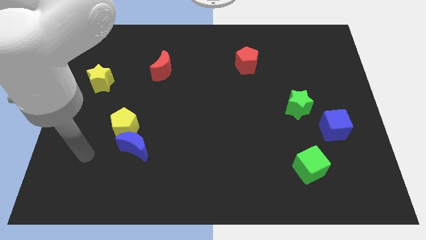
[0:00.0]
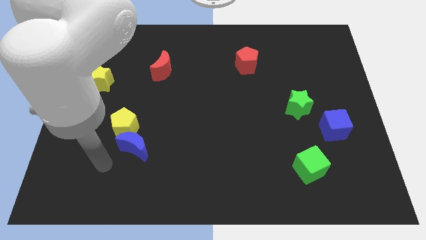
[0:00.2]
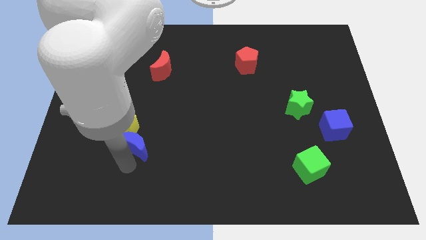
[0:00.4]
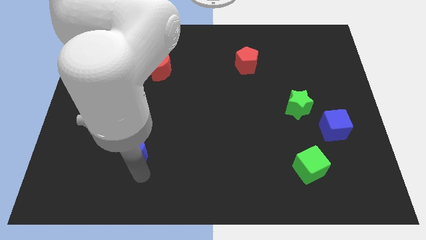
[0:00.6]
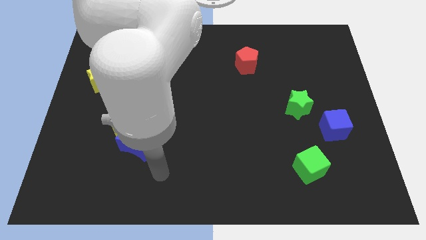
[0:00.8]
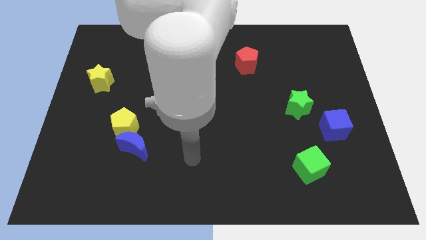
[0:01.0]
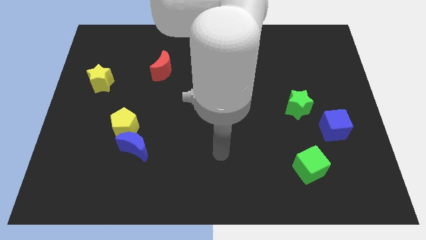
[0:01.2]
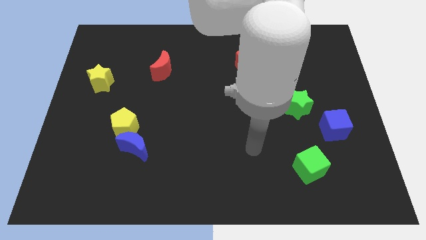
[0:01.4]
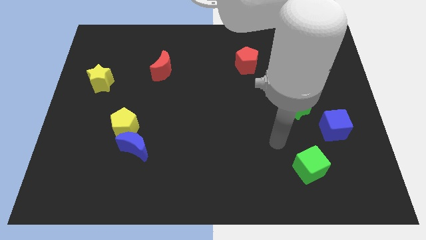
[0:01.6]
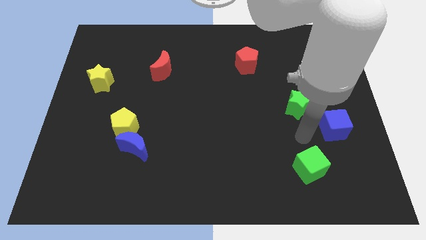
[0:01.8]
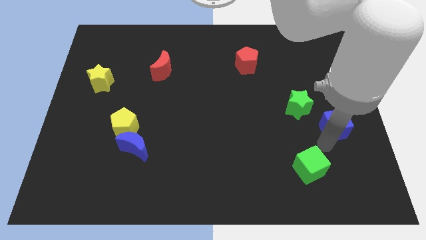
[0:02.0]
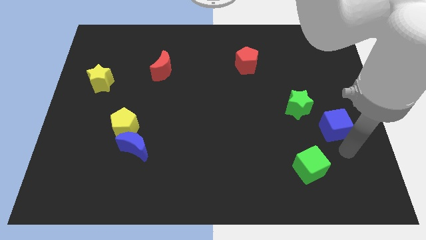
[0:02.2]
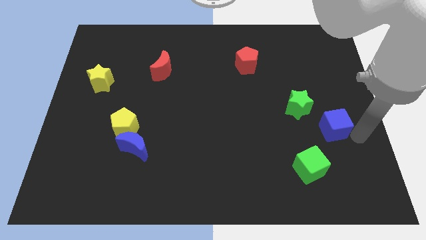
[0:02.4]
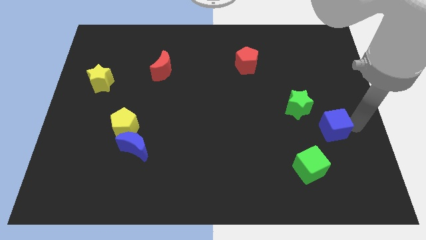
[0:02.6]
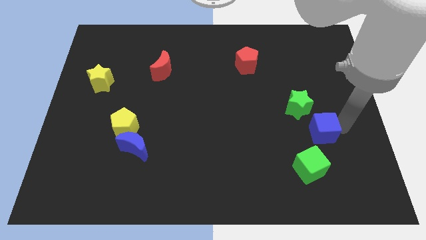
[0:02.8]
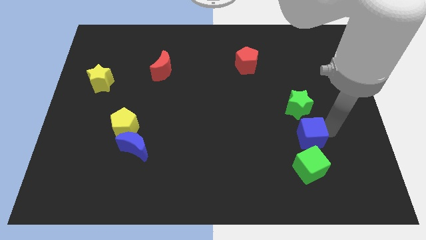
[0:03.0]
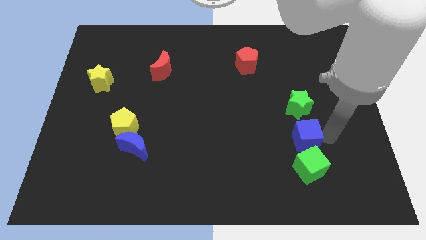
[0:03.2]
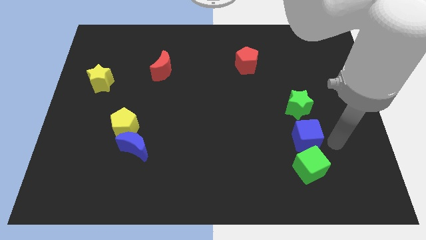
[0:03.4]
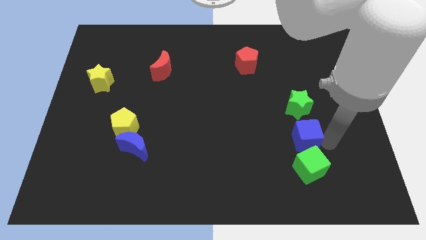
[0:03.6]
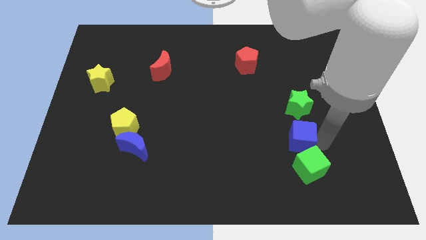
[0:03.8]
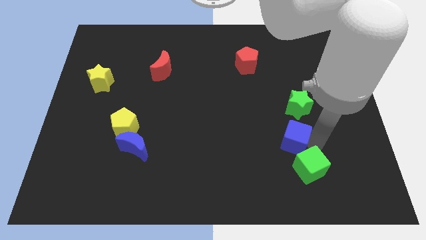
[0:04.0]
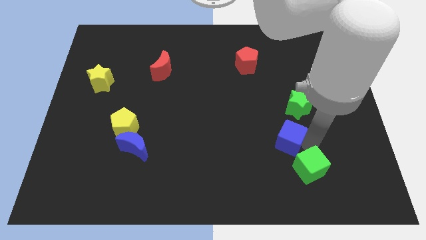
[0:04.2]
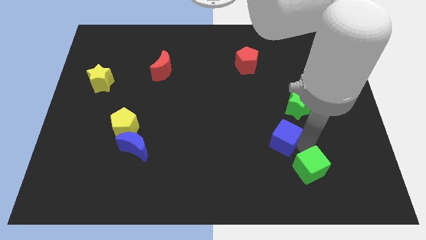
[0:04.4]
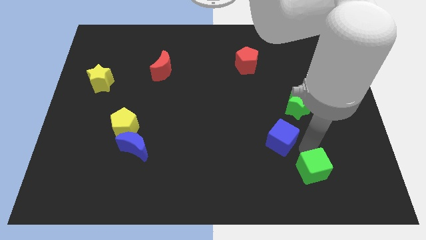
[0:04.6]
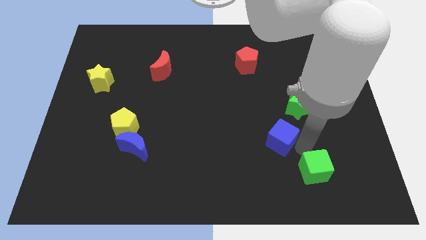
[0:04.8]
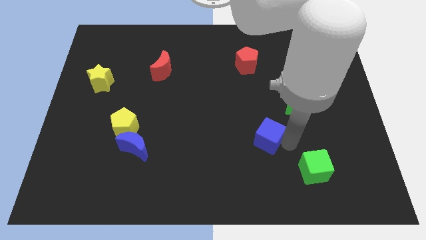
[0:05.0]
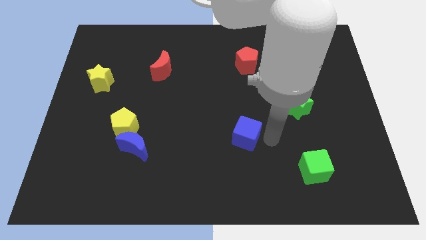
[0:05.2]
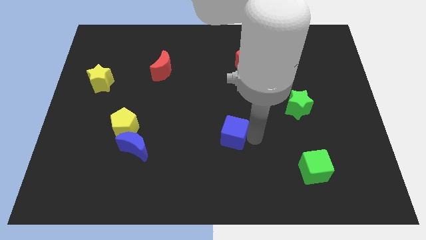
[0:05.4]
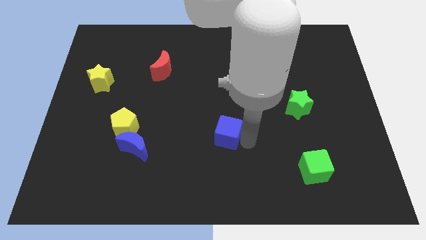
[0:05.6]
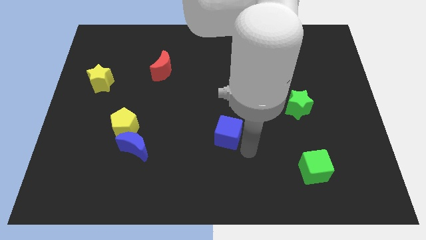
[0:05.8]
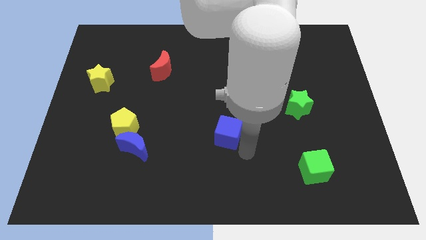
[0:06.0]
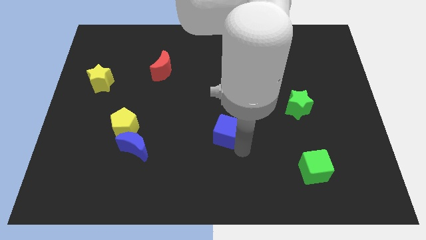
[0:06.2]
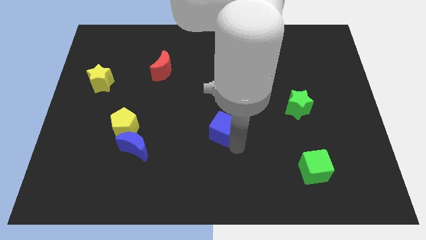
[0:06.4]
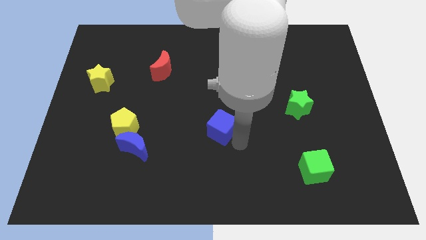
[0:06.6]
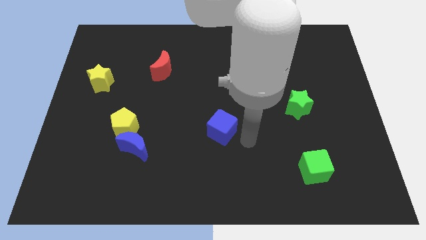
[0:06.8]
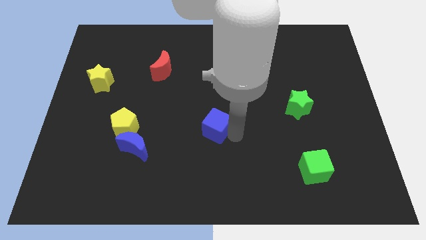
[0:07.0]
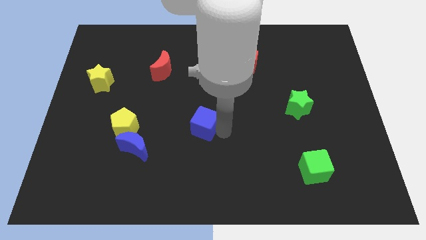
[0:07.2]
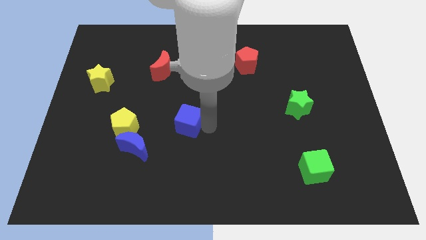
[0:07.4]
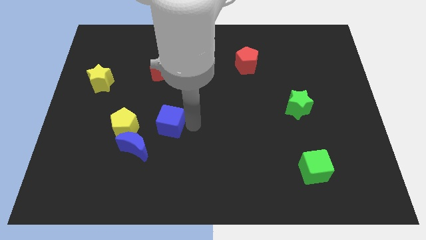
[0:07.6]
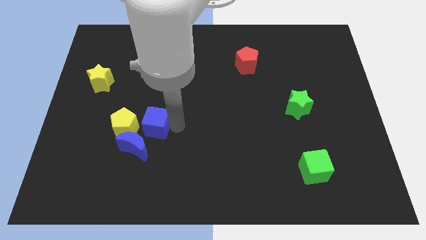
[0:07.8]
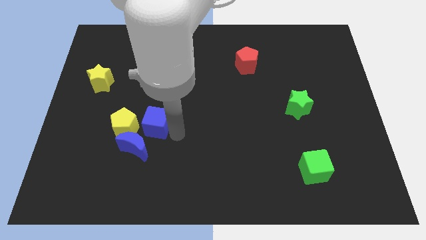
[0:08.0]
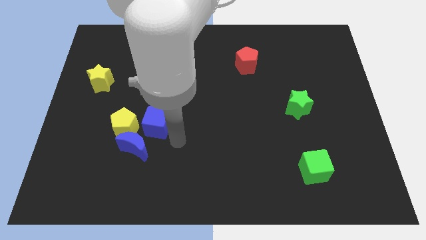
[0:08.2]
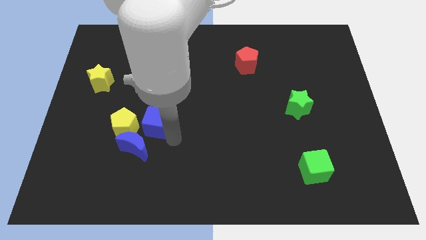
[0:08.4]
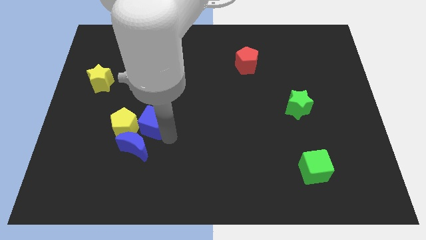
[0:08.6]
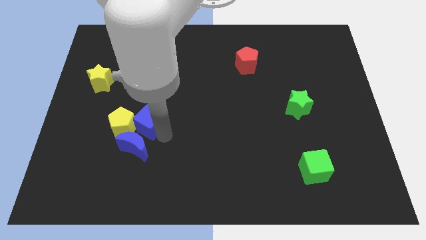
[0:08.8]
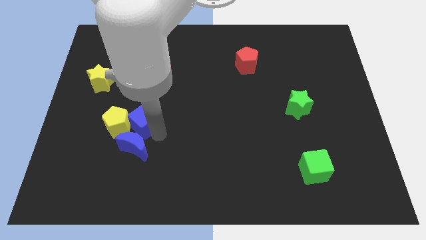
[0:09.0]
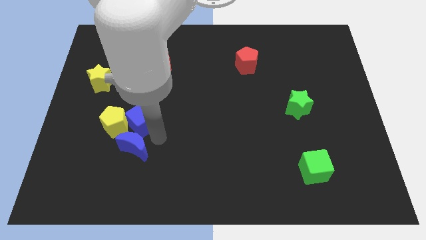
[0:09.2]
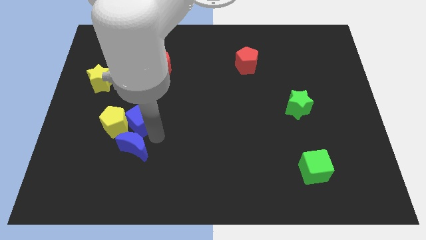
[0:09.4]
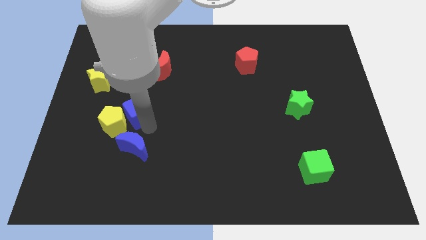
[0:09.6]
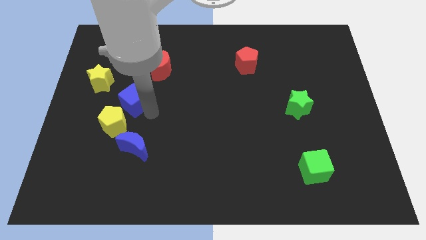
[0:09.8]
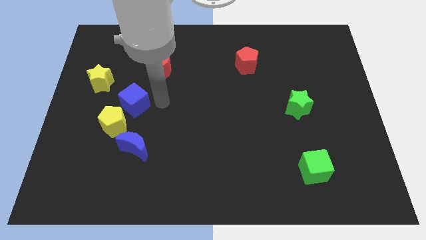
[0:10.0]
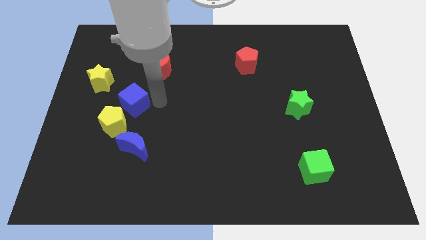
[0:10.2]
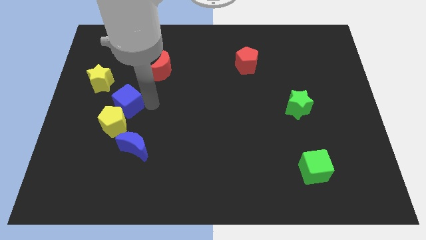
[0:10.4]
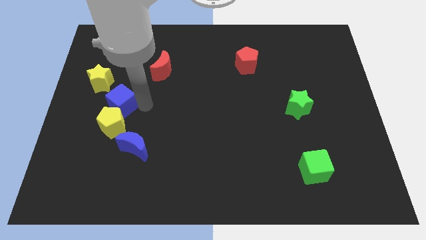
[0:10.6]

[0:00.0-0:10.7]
move the blue cube to the top left side of the yellow pentagon

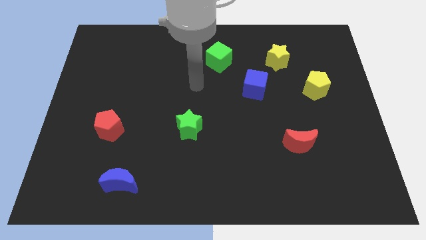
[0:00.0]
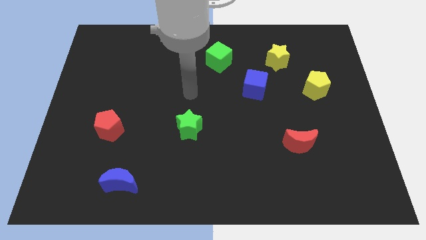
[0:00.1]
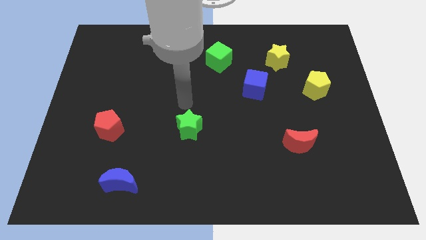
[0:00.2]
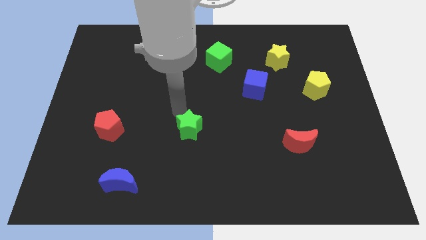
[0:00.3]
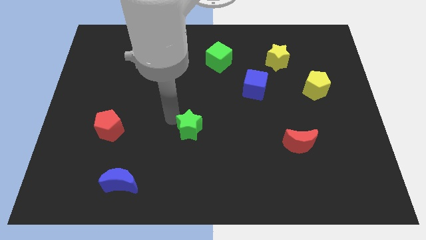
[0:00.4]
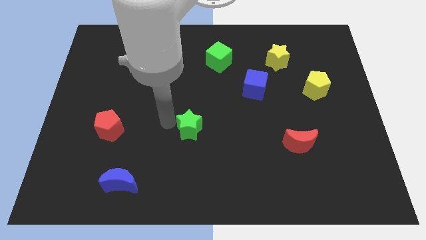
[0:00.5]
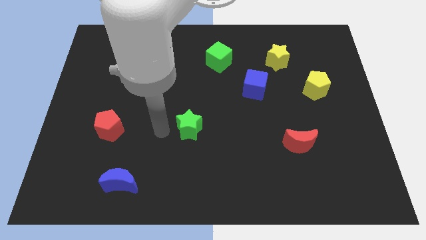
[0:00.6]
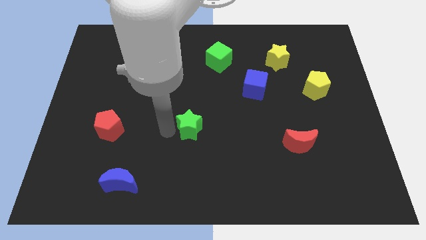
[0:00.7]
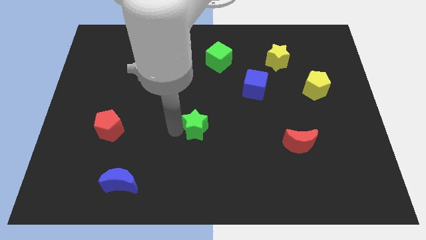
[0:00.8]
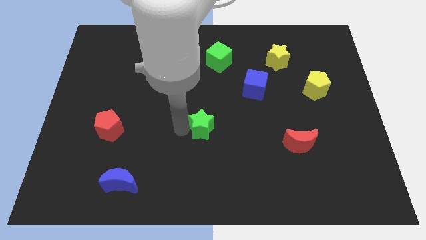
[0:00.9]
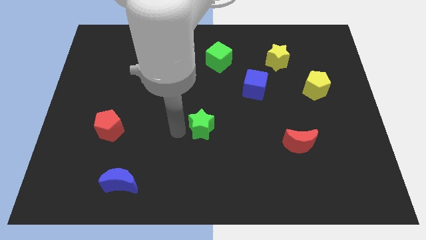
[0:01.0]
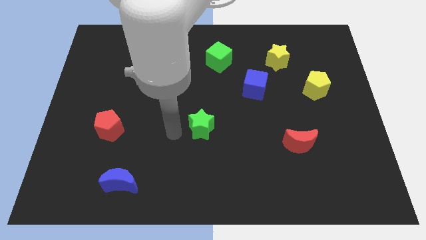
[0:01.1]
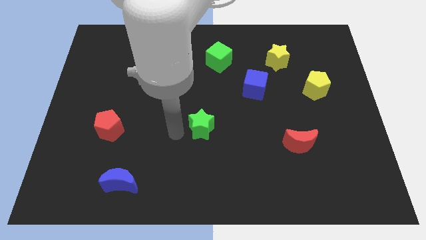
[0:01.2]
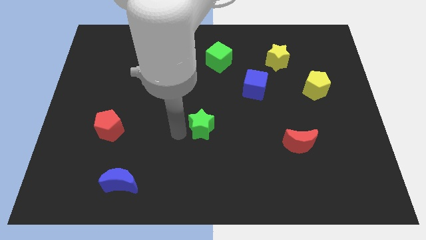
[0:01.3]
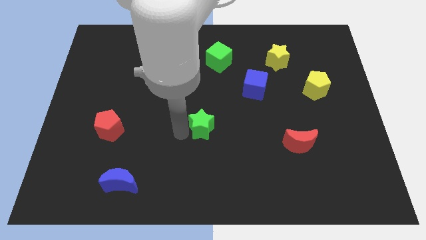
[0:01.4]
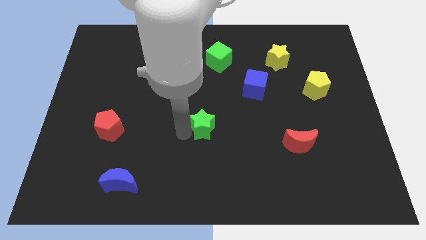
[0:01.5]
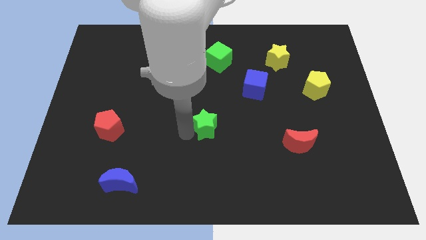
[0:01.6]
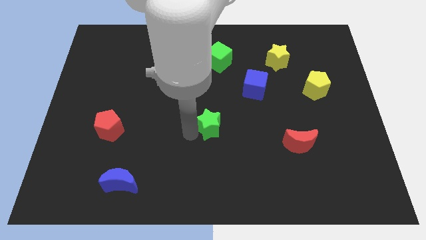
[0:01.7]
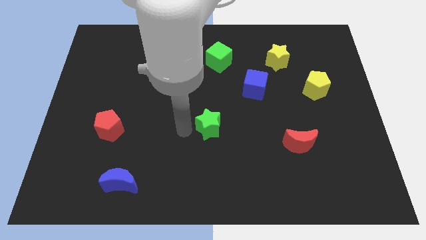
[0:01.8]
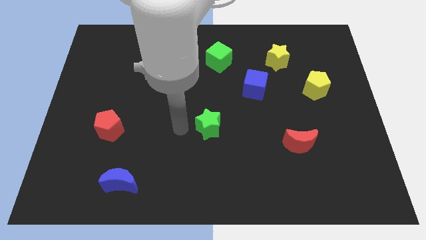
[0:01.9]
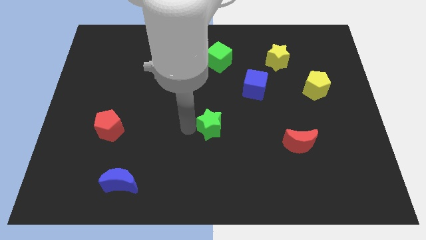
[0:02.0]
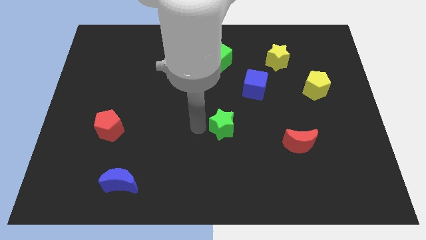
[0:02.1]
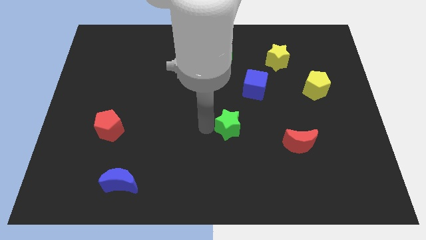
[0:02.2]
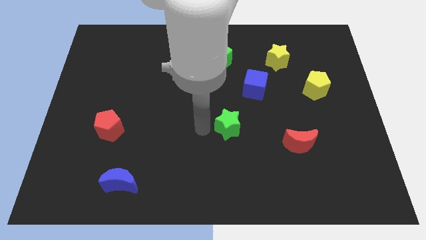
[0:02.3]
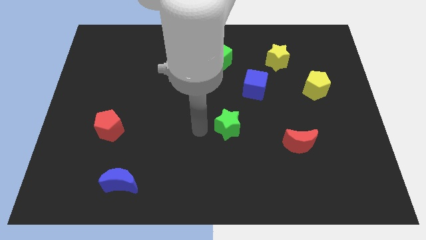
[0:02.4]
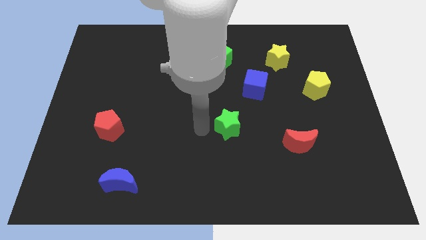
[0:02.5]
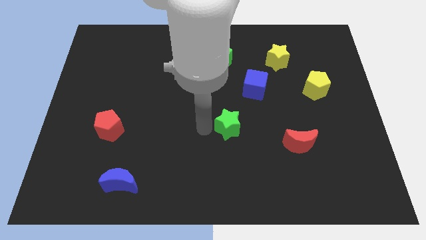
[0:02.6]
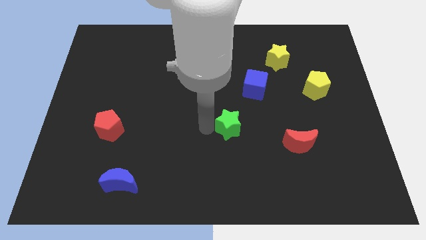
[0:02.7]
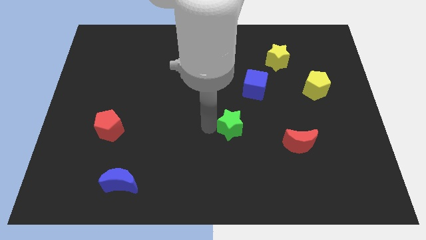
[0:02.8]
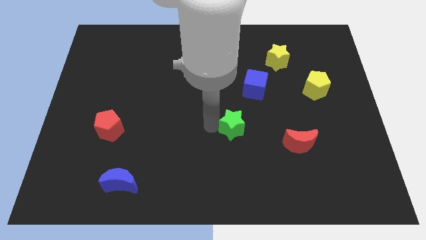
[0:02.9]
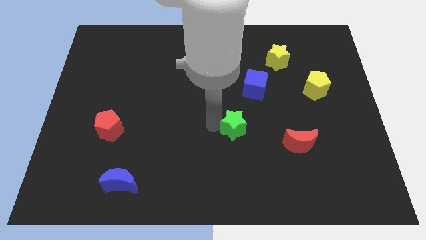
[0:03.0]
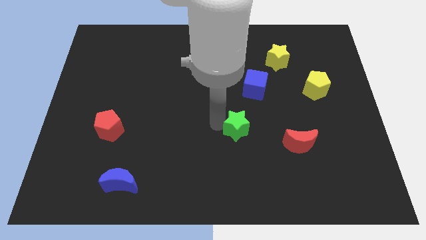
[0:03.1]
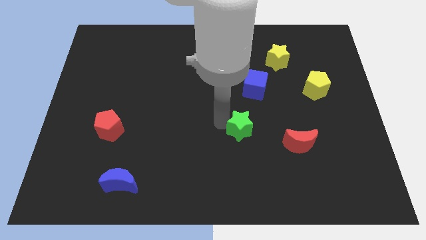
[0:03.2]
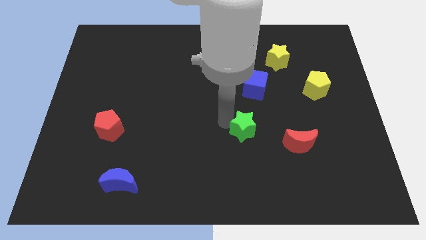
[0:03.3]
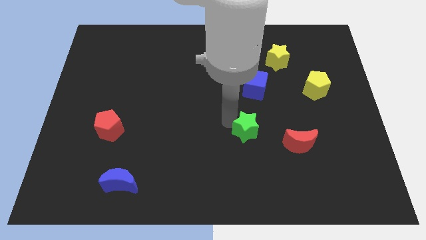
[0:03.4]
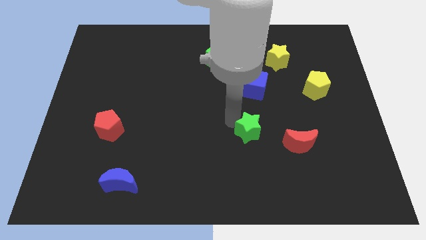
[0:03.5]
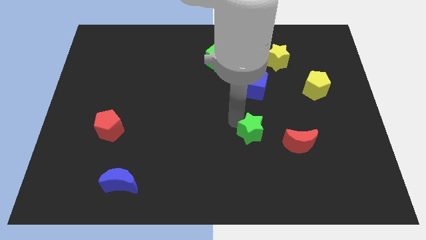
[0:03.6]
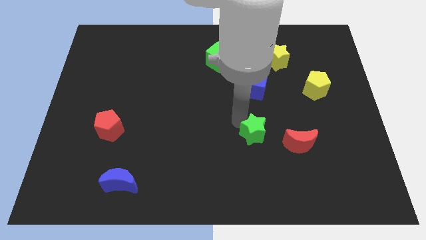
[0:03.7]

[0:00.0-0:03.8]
move the green star to the top left of the red moon
